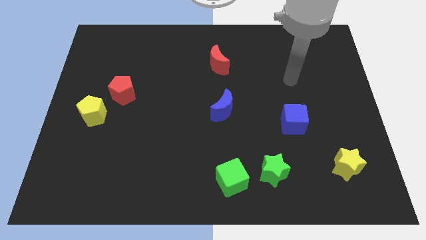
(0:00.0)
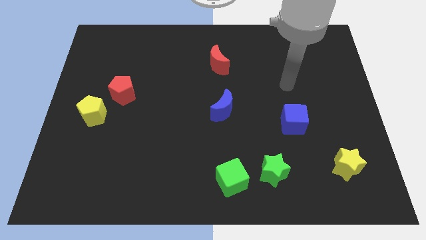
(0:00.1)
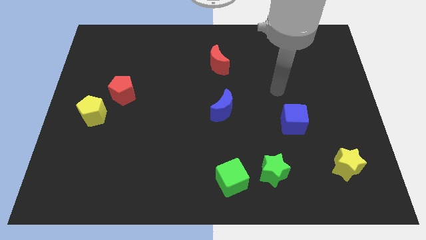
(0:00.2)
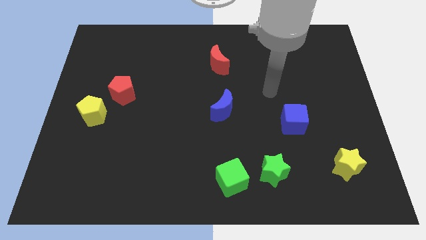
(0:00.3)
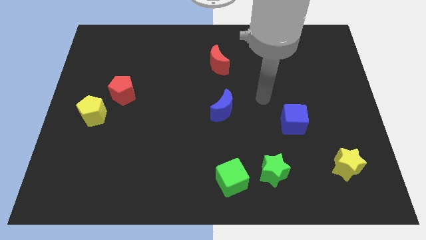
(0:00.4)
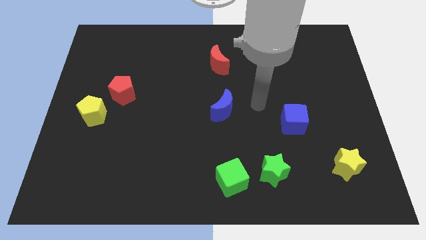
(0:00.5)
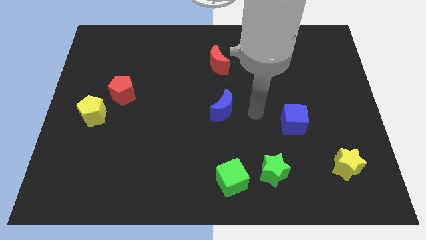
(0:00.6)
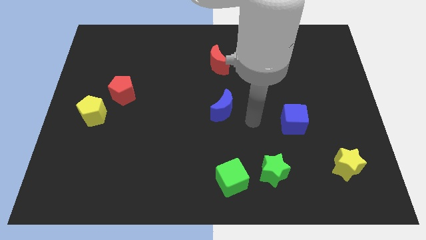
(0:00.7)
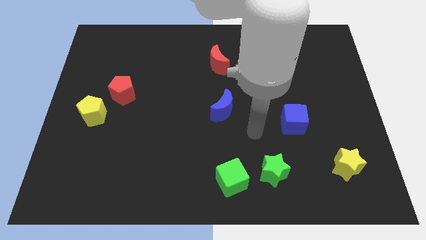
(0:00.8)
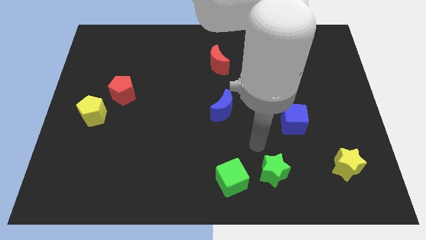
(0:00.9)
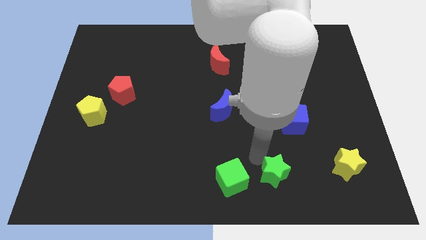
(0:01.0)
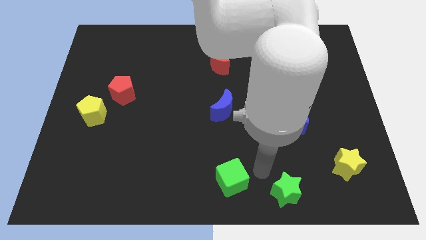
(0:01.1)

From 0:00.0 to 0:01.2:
move the green cube away from the green star

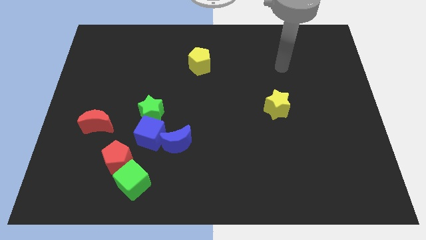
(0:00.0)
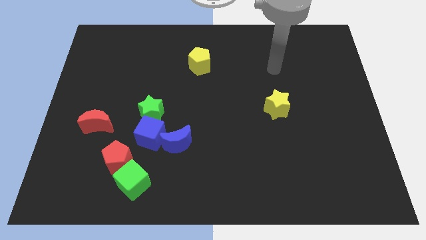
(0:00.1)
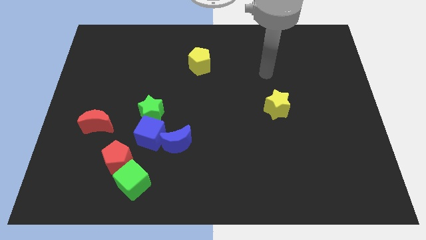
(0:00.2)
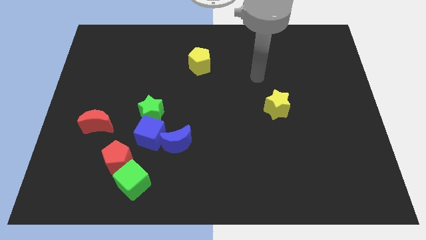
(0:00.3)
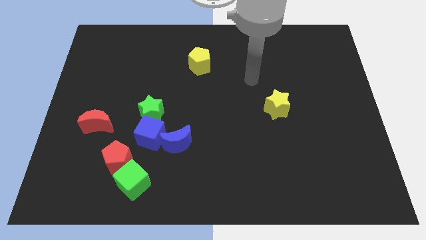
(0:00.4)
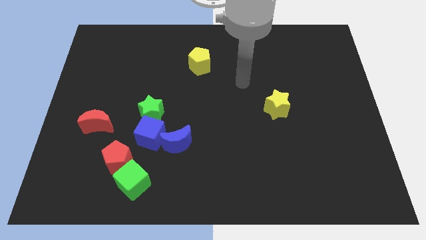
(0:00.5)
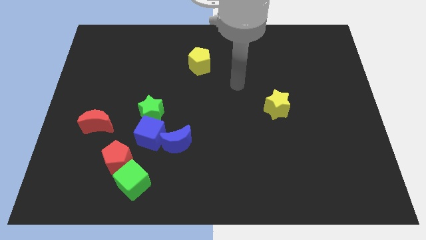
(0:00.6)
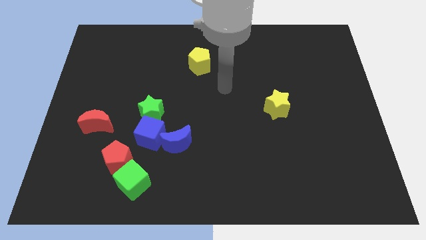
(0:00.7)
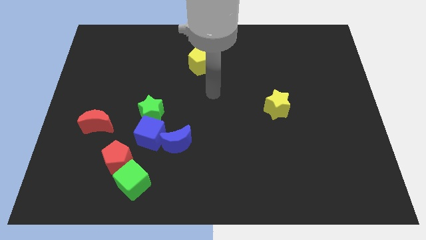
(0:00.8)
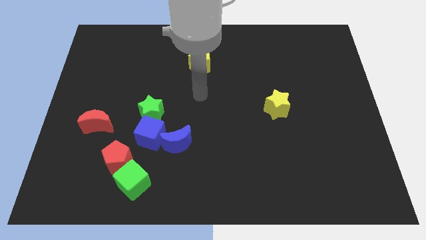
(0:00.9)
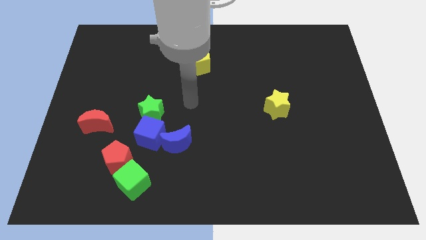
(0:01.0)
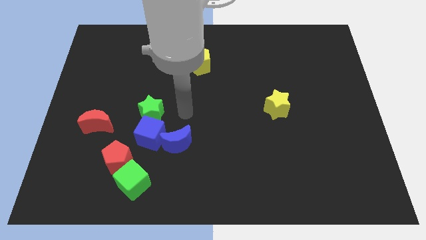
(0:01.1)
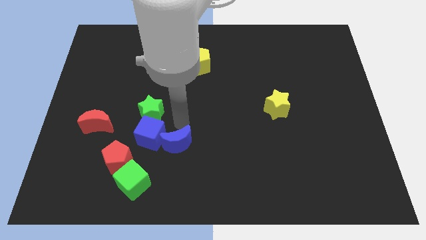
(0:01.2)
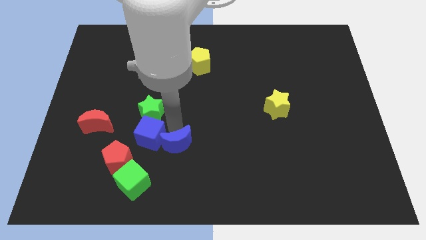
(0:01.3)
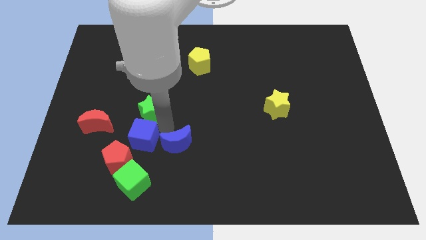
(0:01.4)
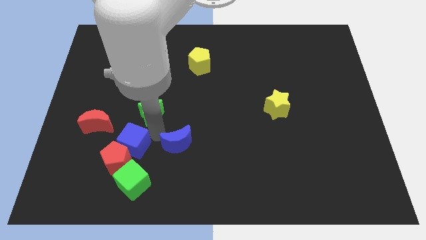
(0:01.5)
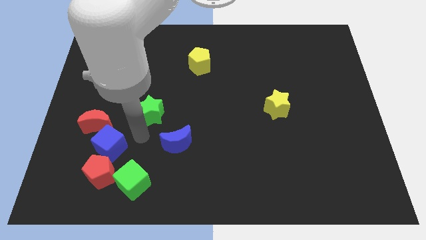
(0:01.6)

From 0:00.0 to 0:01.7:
separate the green star from the blue cube

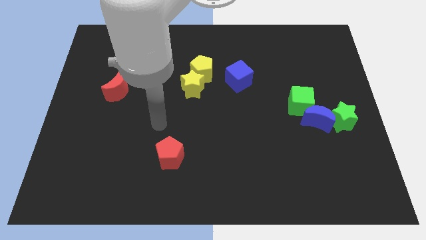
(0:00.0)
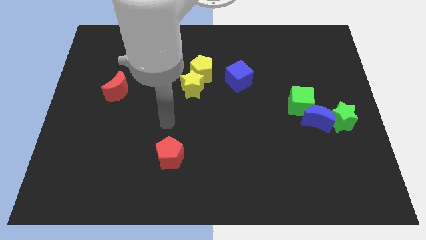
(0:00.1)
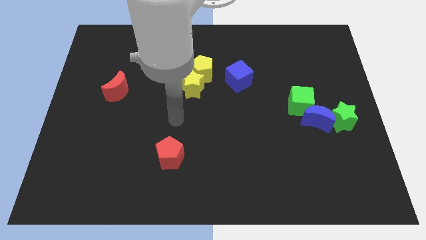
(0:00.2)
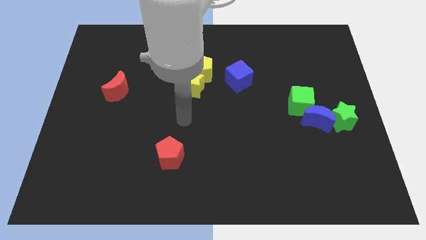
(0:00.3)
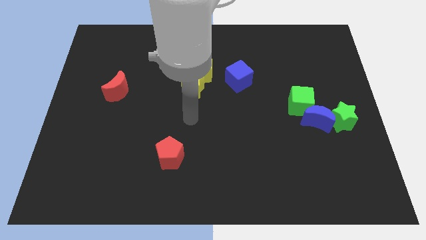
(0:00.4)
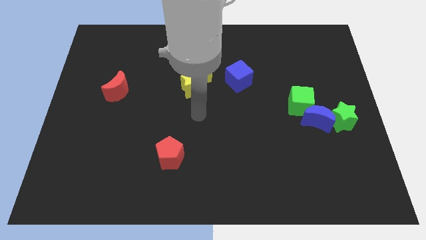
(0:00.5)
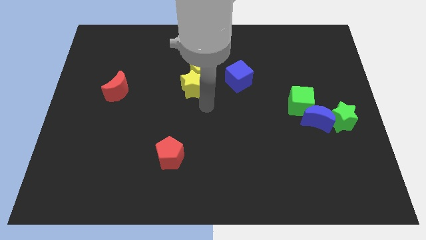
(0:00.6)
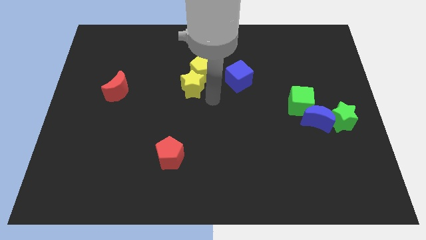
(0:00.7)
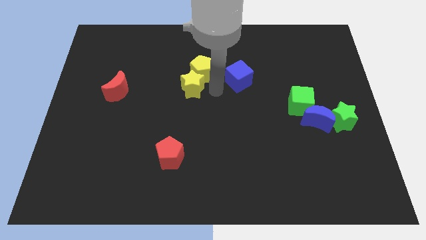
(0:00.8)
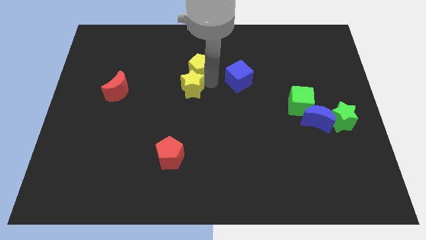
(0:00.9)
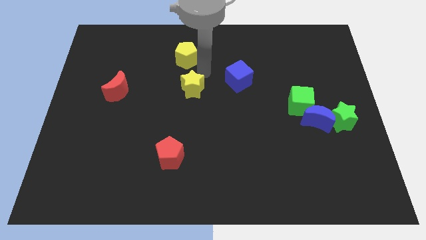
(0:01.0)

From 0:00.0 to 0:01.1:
pull the yellow star apart from the yellow pentagon

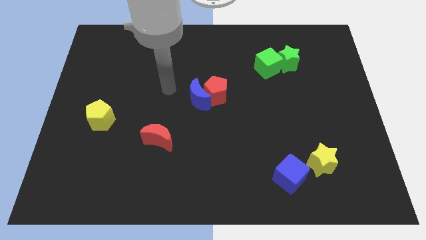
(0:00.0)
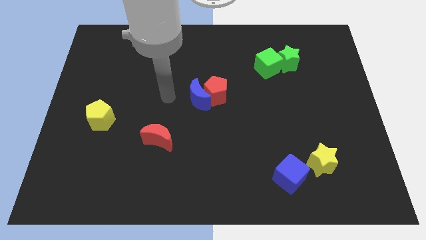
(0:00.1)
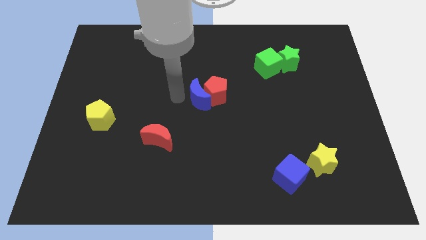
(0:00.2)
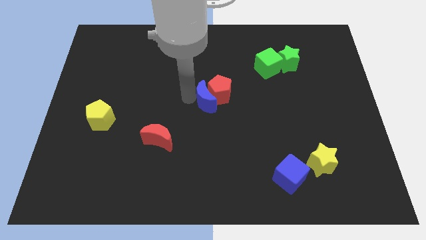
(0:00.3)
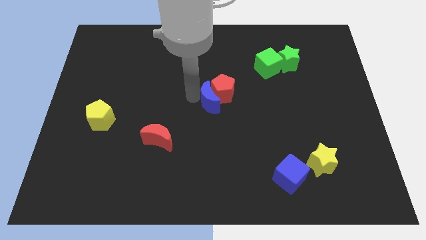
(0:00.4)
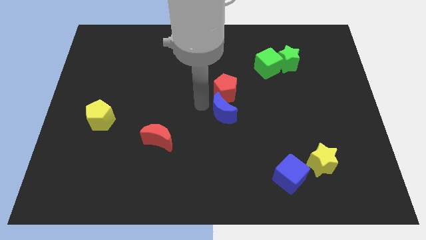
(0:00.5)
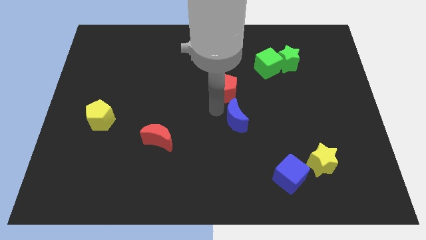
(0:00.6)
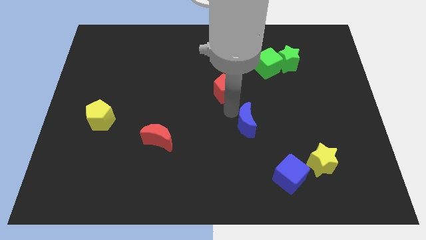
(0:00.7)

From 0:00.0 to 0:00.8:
separate the red pentagon from the blue moon

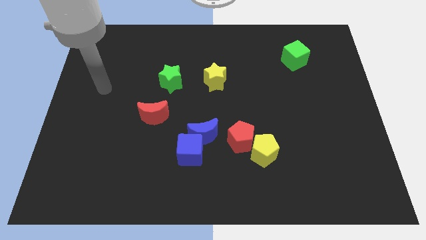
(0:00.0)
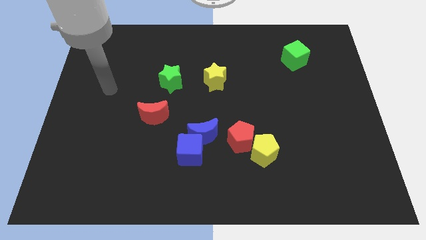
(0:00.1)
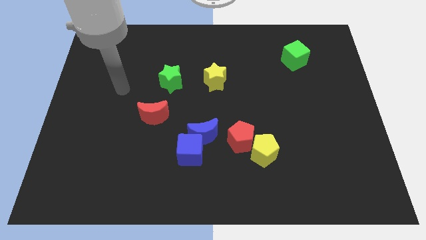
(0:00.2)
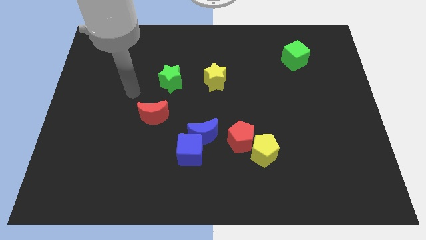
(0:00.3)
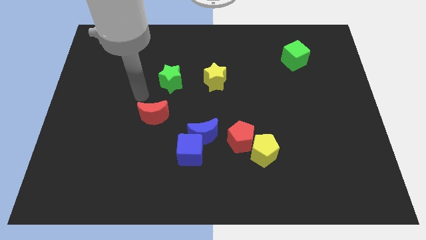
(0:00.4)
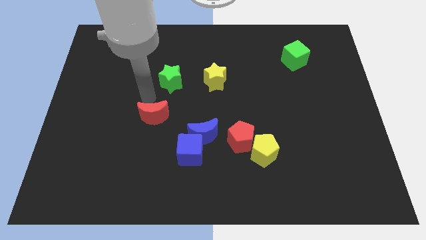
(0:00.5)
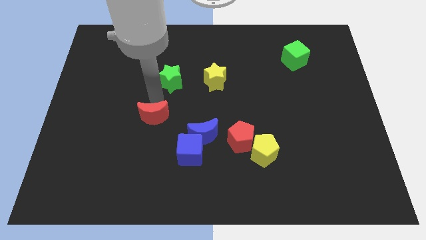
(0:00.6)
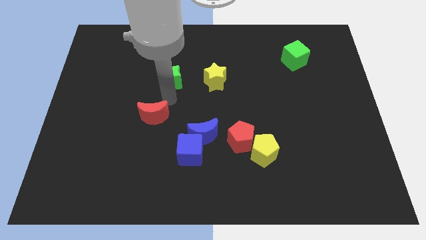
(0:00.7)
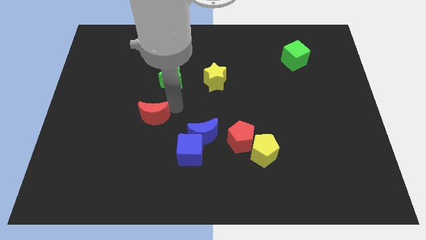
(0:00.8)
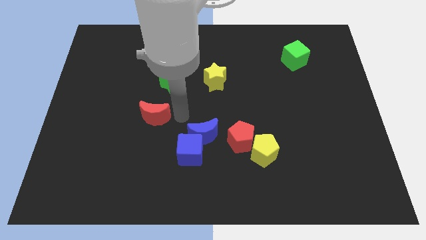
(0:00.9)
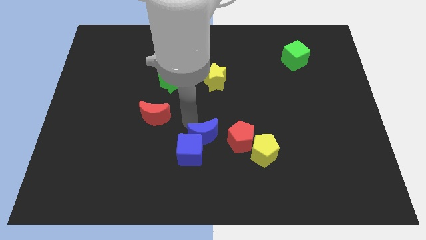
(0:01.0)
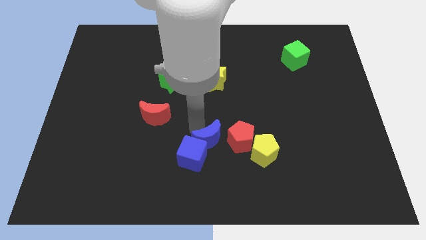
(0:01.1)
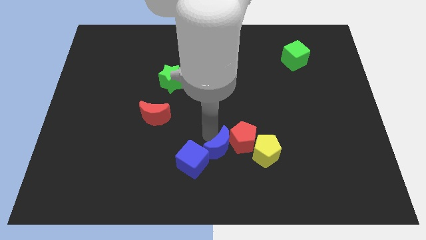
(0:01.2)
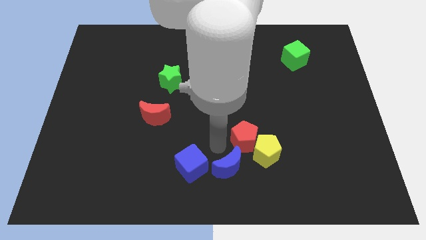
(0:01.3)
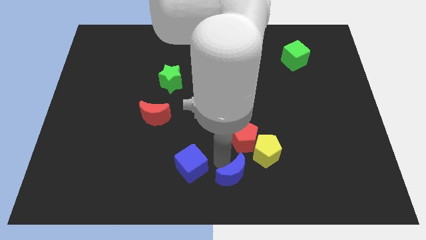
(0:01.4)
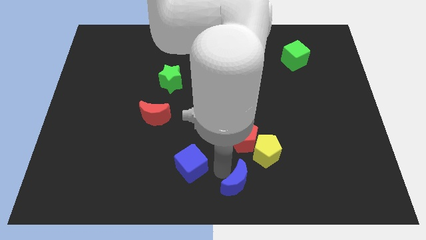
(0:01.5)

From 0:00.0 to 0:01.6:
separate the blue cube from the blue moon

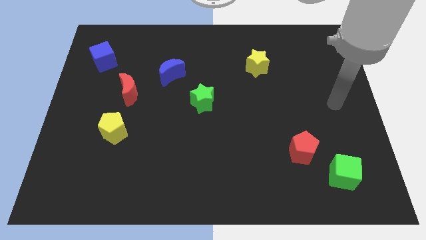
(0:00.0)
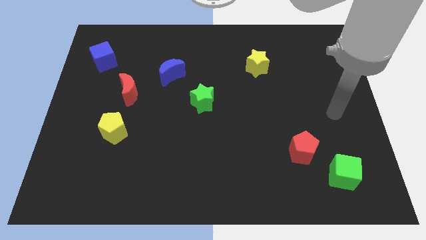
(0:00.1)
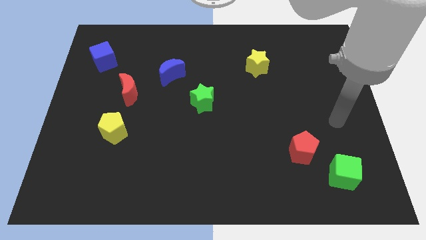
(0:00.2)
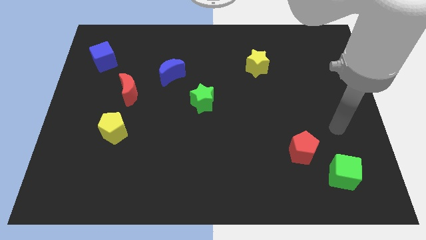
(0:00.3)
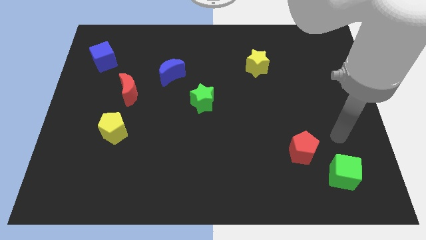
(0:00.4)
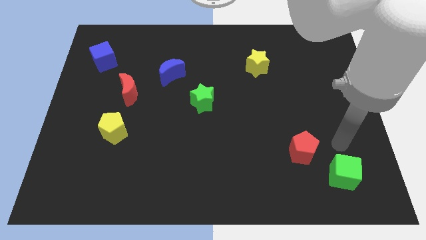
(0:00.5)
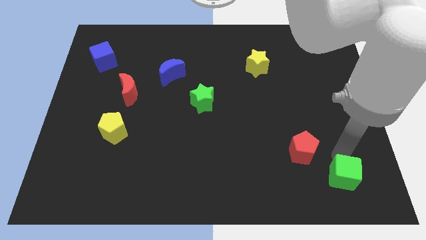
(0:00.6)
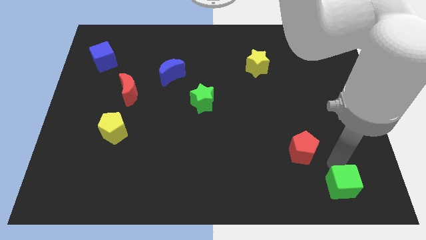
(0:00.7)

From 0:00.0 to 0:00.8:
move the red pentagon away from the green cube

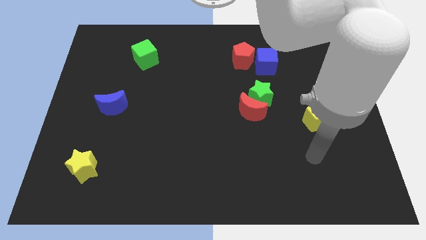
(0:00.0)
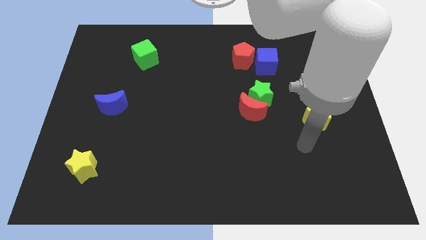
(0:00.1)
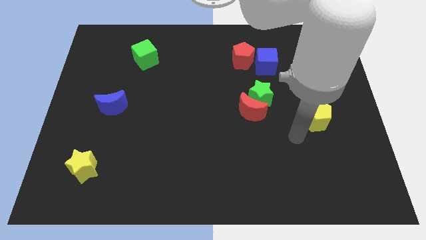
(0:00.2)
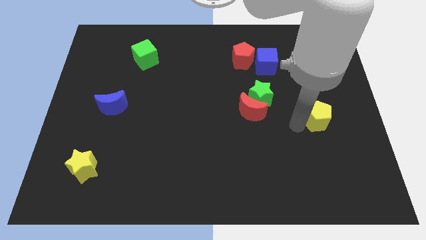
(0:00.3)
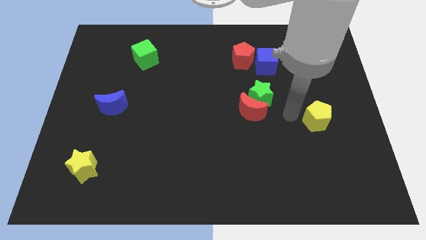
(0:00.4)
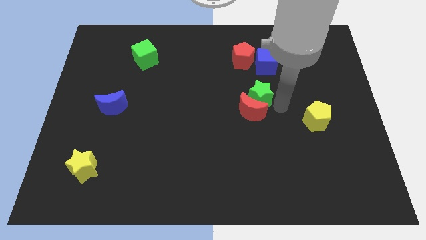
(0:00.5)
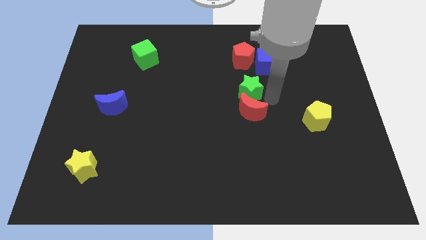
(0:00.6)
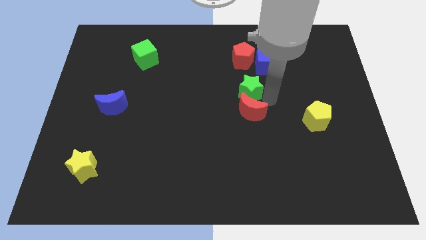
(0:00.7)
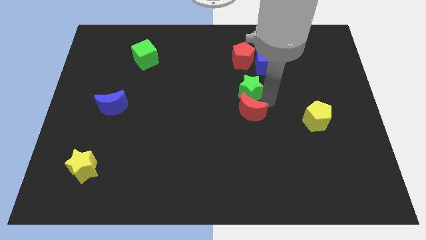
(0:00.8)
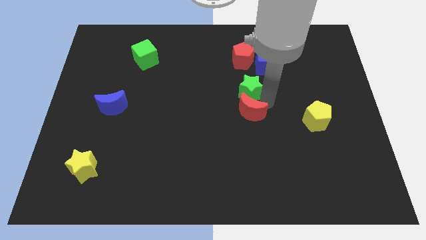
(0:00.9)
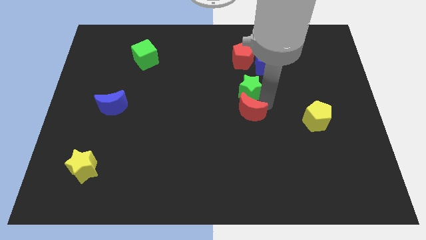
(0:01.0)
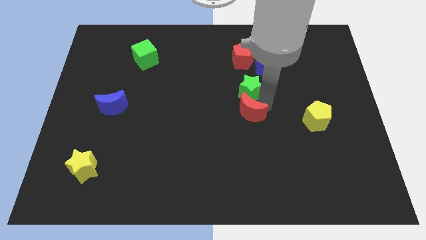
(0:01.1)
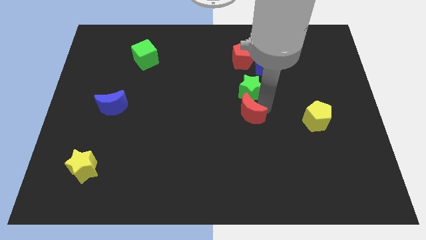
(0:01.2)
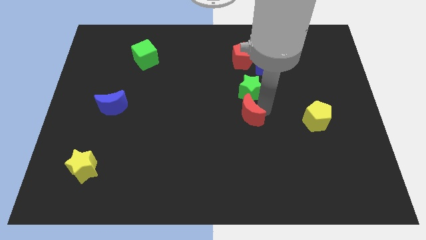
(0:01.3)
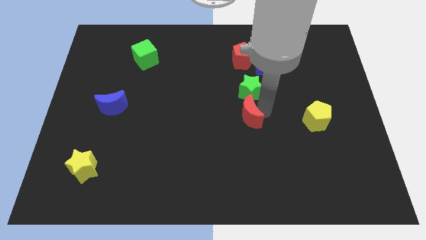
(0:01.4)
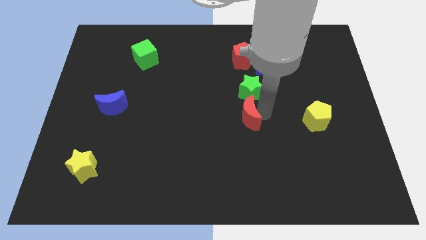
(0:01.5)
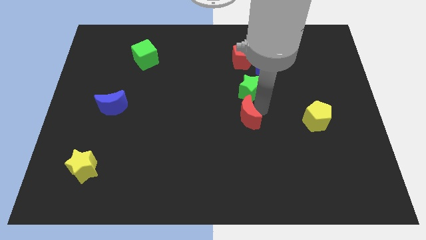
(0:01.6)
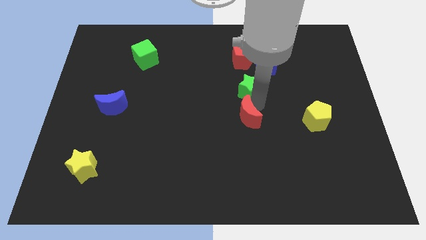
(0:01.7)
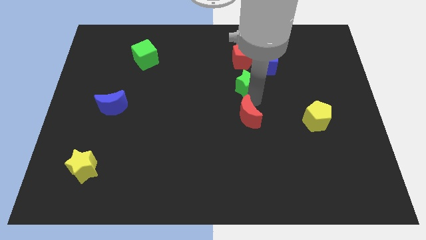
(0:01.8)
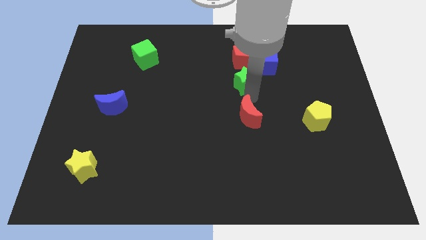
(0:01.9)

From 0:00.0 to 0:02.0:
pull the red moon apart from the green star
